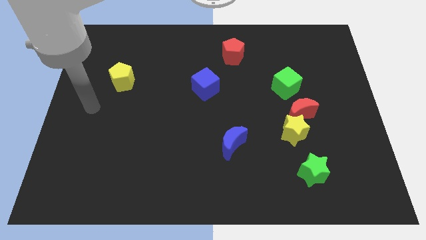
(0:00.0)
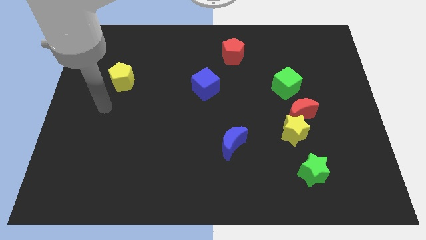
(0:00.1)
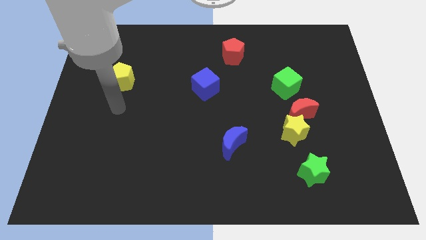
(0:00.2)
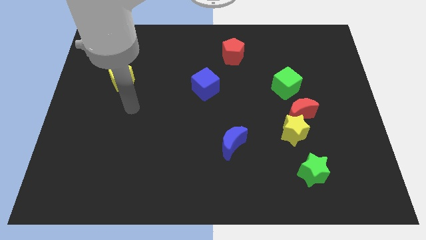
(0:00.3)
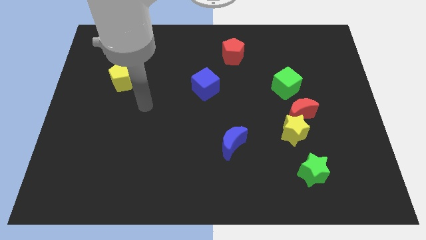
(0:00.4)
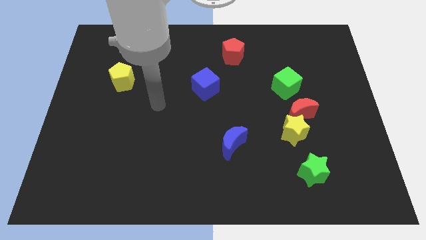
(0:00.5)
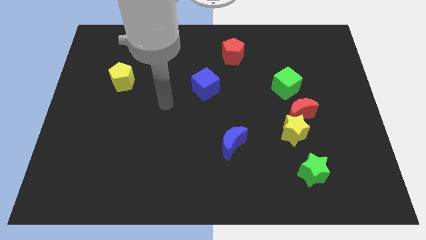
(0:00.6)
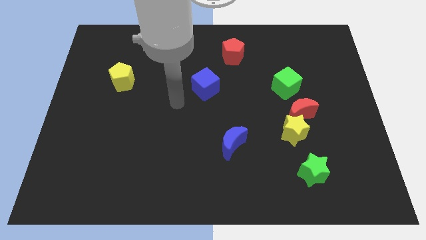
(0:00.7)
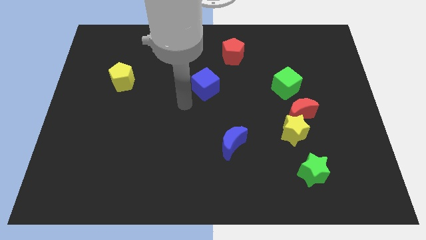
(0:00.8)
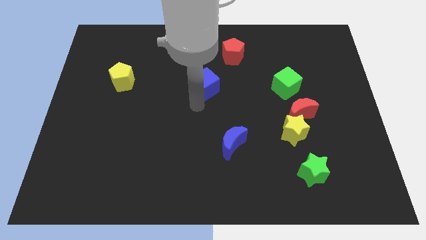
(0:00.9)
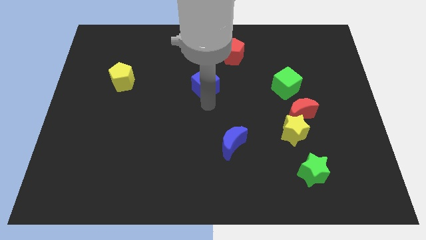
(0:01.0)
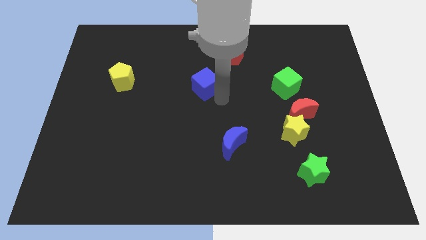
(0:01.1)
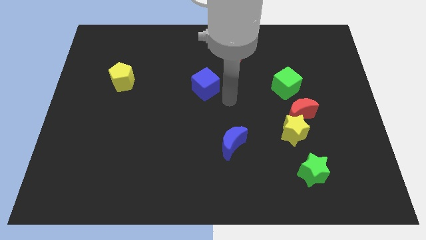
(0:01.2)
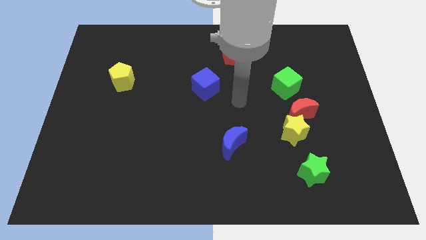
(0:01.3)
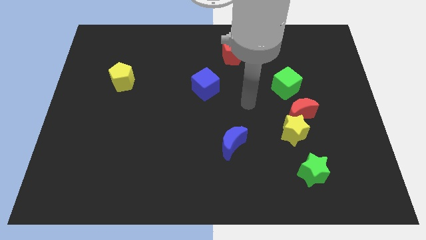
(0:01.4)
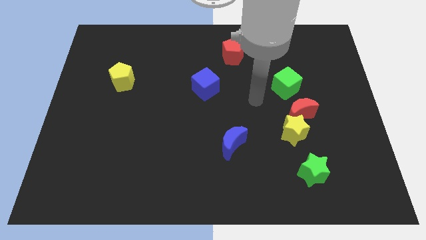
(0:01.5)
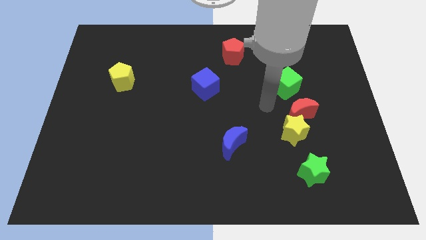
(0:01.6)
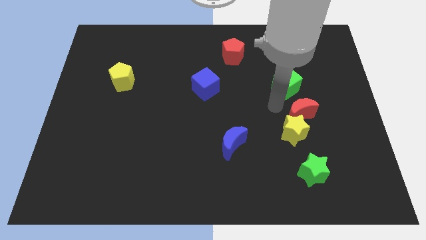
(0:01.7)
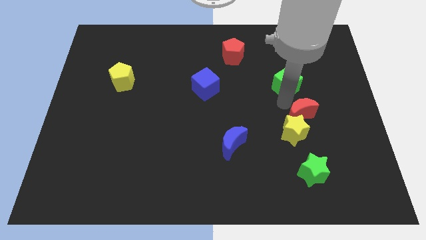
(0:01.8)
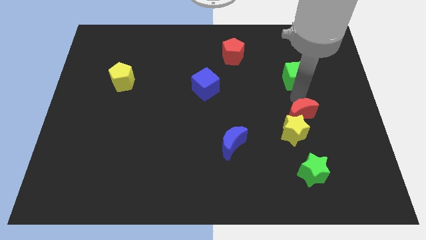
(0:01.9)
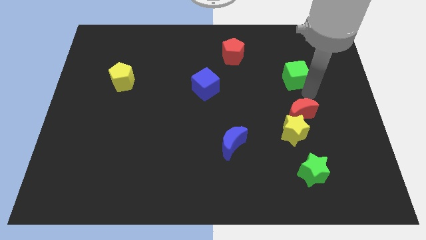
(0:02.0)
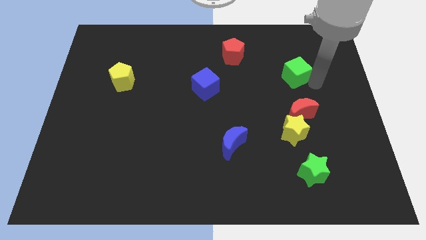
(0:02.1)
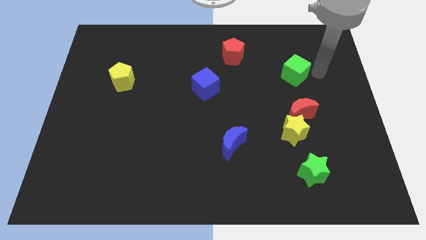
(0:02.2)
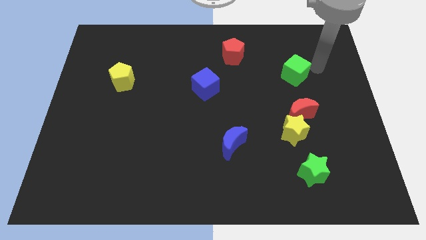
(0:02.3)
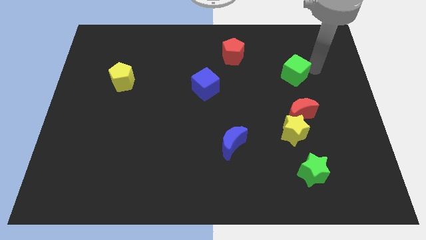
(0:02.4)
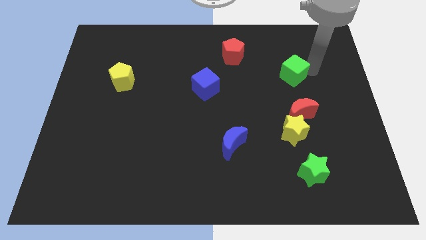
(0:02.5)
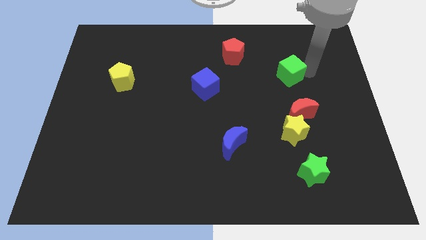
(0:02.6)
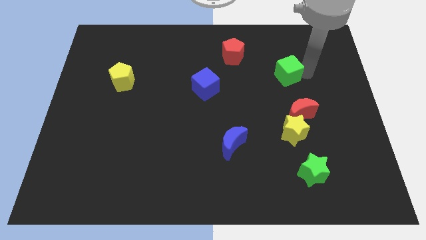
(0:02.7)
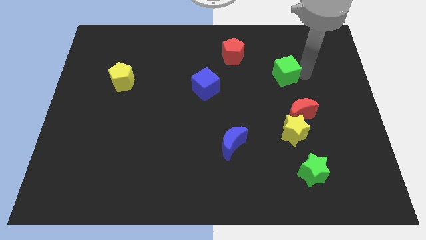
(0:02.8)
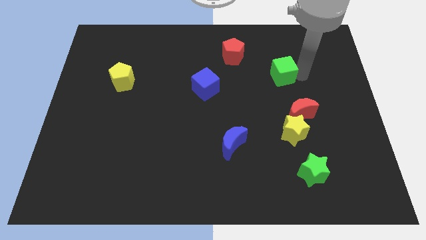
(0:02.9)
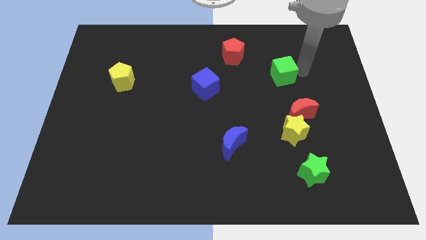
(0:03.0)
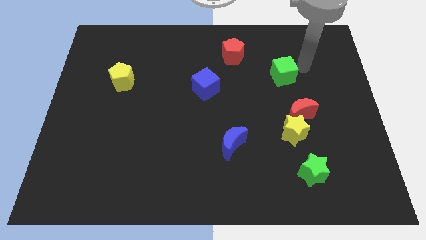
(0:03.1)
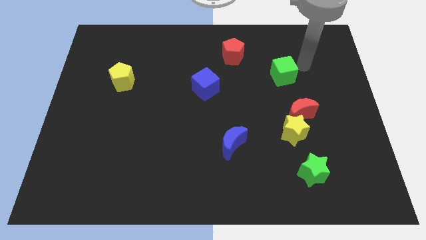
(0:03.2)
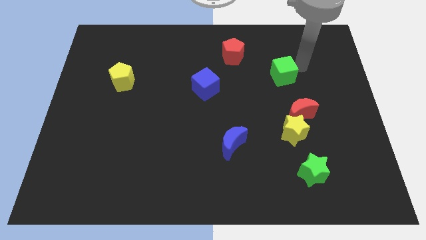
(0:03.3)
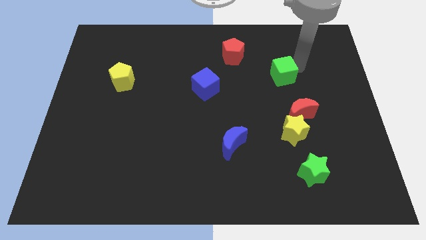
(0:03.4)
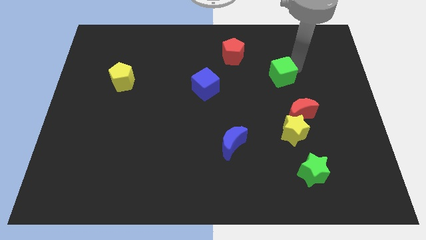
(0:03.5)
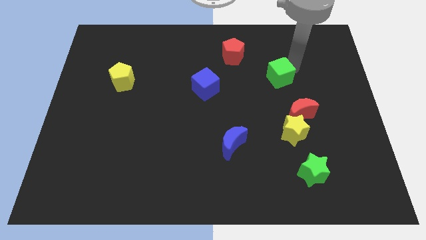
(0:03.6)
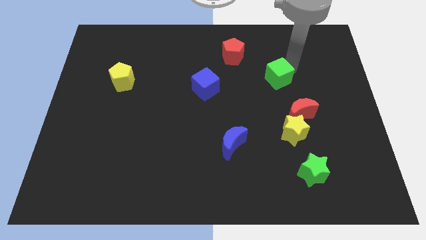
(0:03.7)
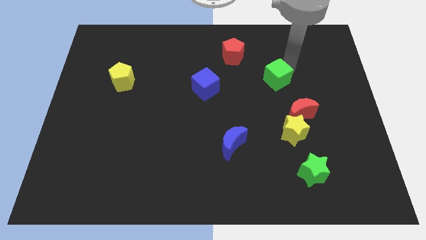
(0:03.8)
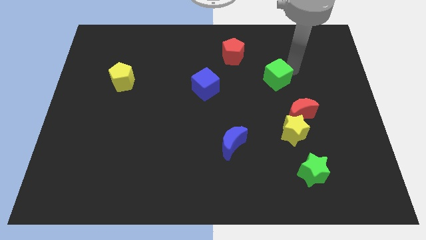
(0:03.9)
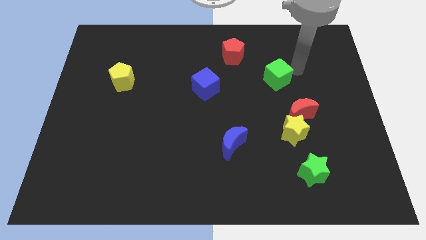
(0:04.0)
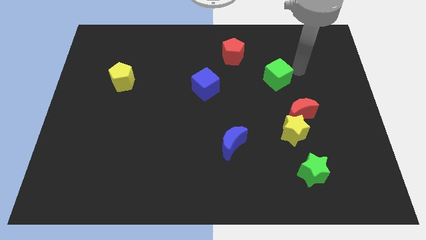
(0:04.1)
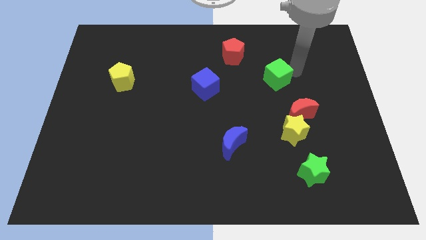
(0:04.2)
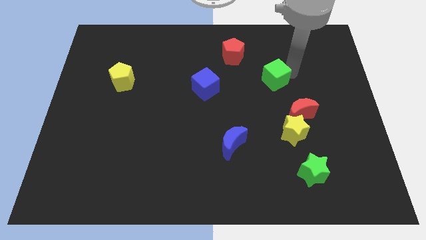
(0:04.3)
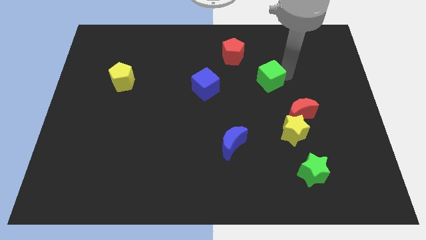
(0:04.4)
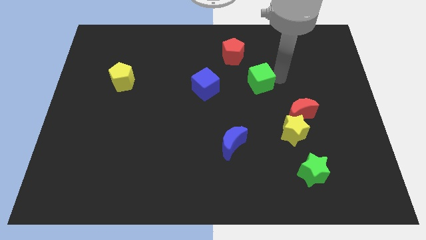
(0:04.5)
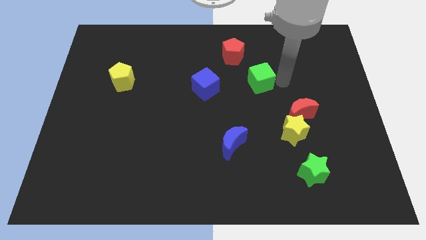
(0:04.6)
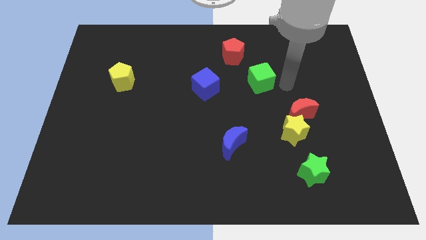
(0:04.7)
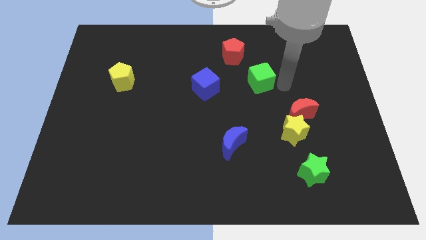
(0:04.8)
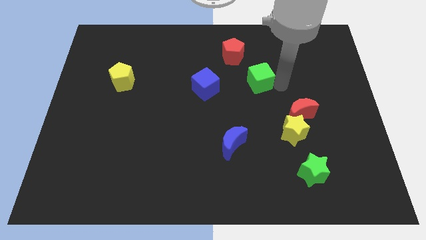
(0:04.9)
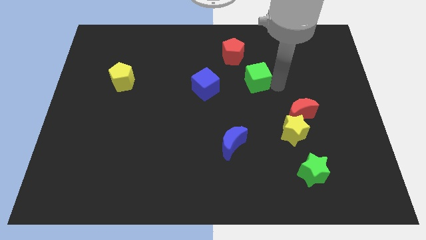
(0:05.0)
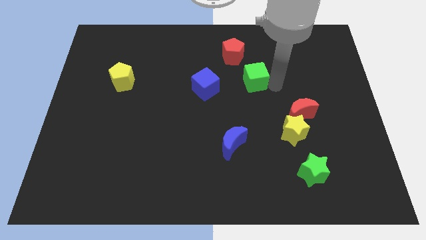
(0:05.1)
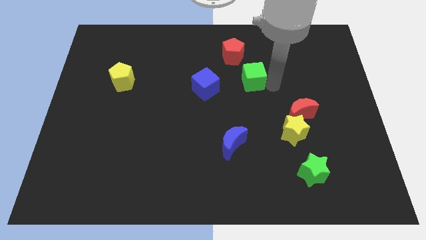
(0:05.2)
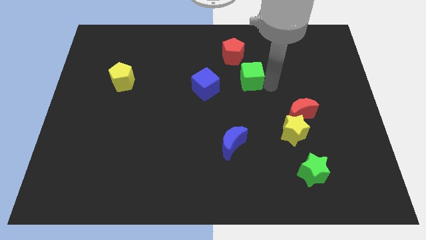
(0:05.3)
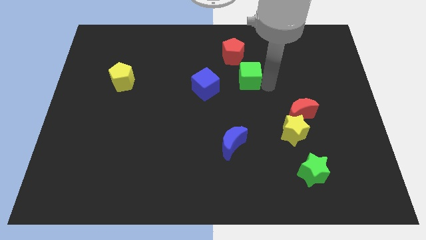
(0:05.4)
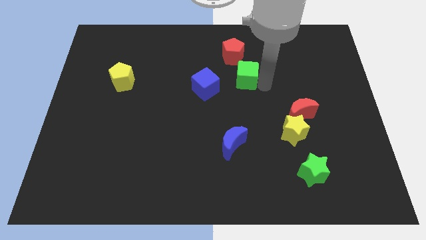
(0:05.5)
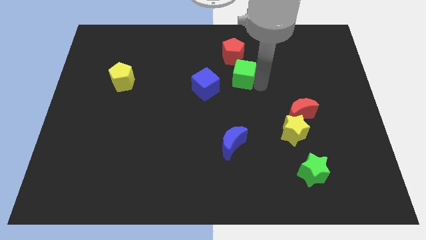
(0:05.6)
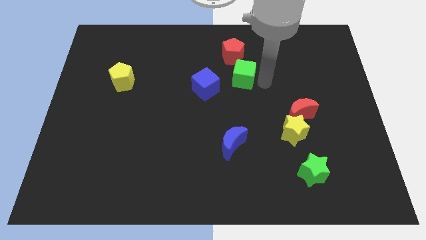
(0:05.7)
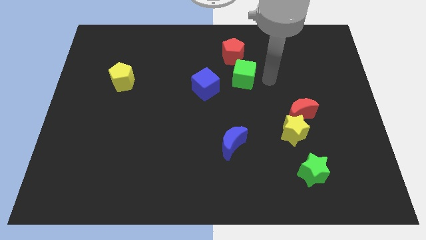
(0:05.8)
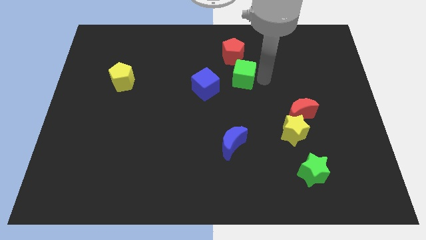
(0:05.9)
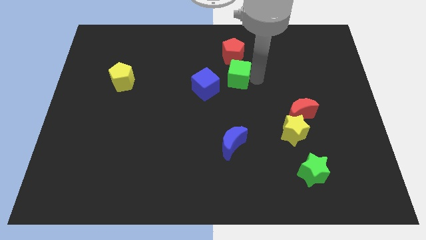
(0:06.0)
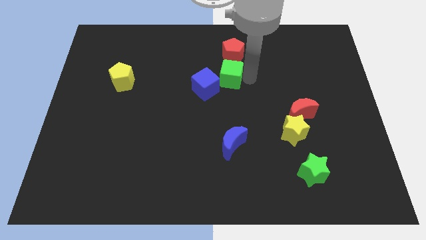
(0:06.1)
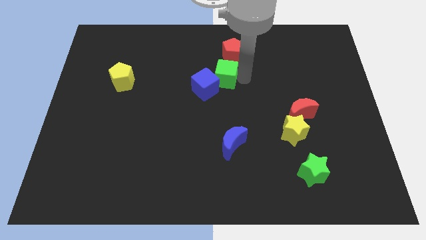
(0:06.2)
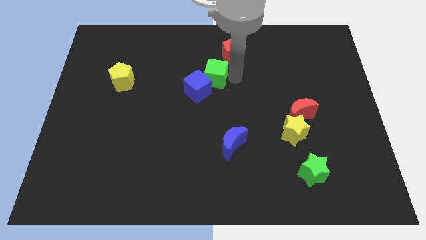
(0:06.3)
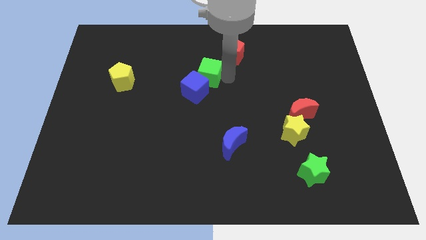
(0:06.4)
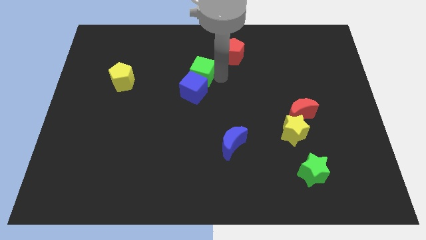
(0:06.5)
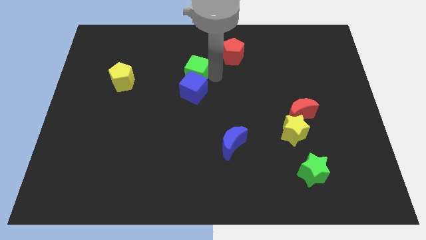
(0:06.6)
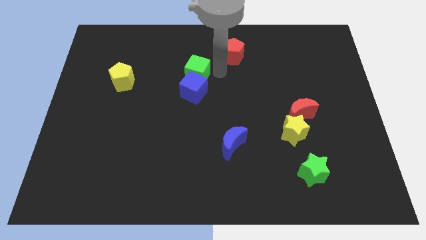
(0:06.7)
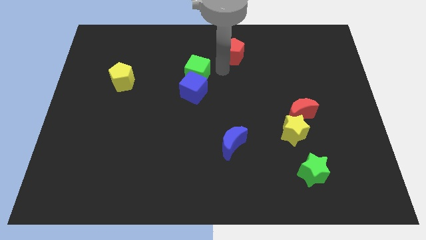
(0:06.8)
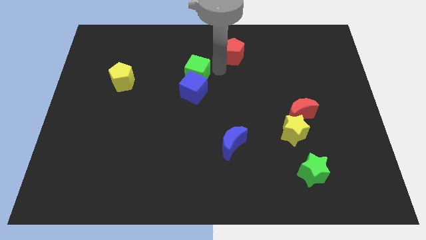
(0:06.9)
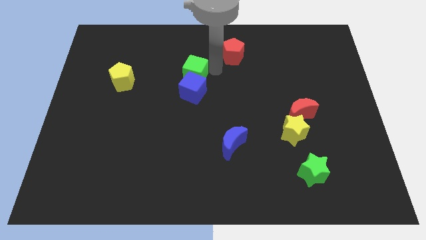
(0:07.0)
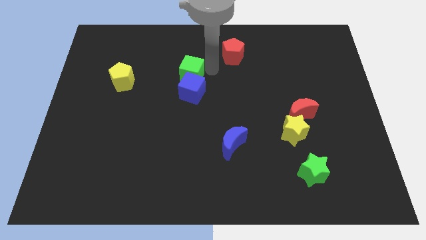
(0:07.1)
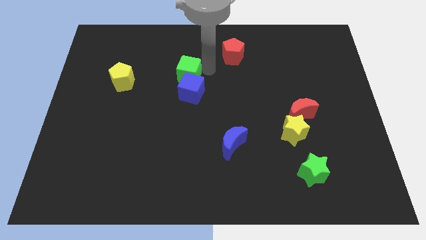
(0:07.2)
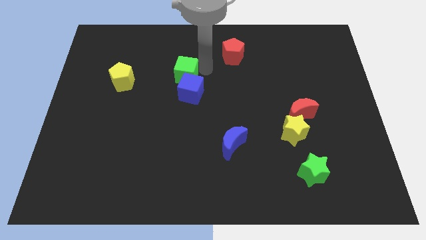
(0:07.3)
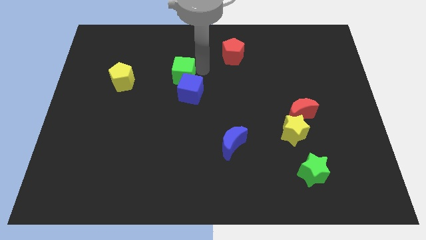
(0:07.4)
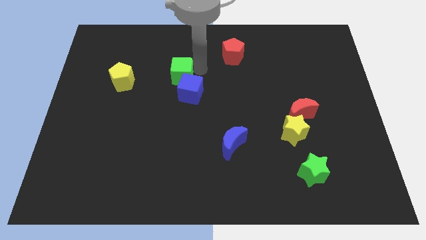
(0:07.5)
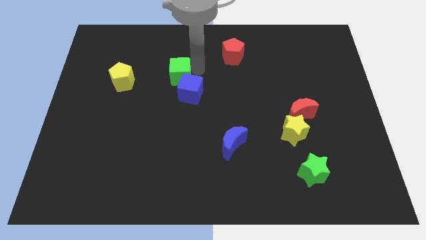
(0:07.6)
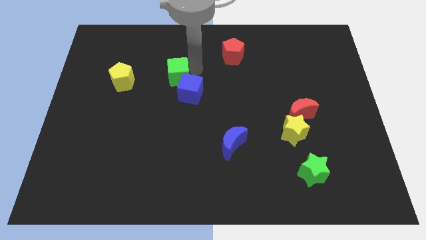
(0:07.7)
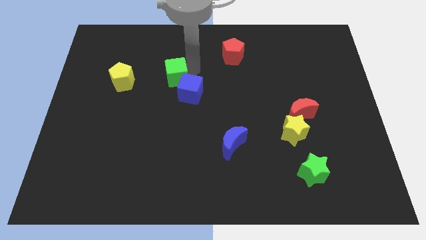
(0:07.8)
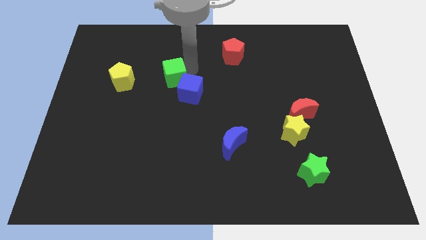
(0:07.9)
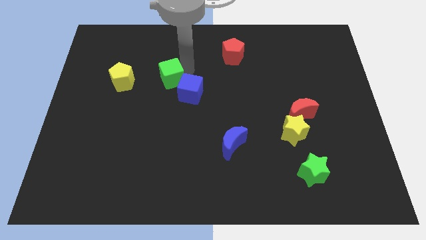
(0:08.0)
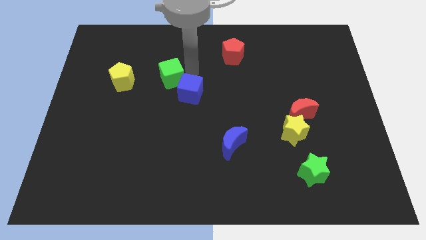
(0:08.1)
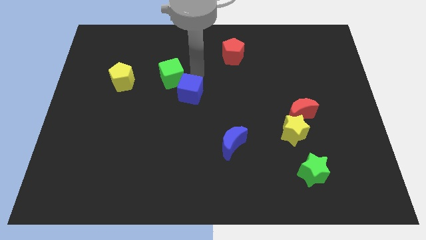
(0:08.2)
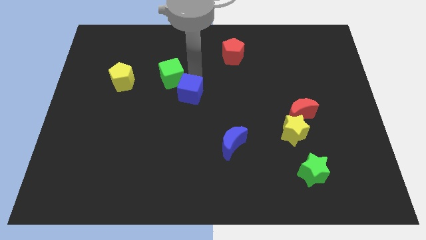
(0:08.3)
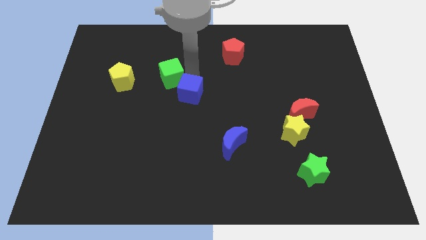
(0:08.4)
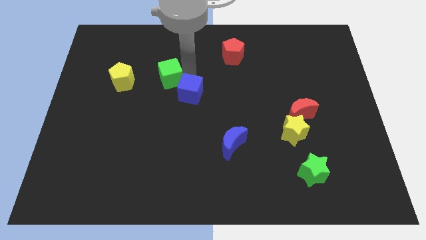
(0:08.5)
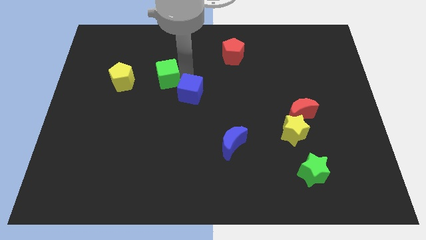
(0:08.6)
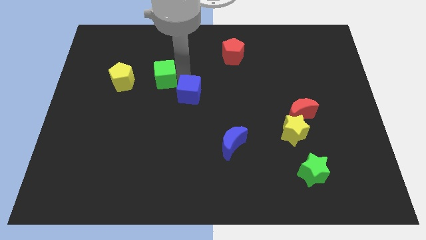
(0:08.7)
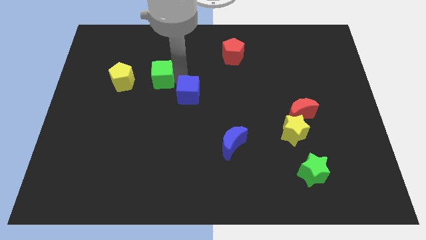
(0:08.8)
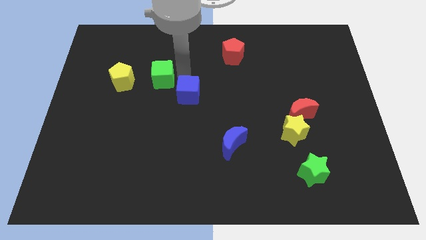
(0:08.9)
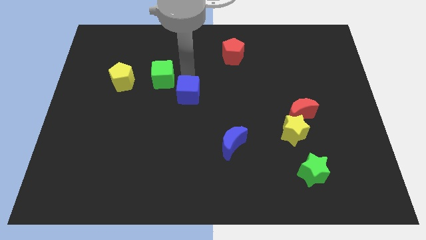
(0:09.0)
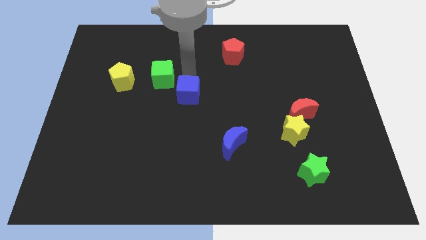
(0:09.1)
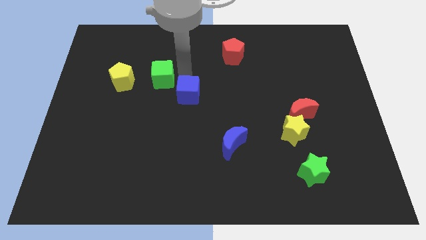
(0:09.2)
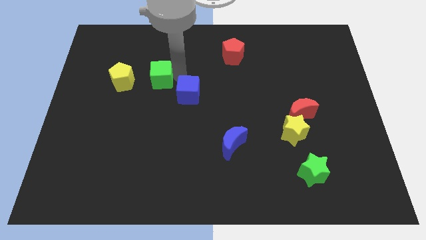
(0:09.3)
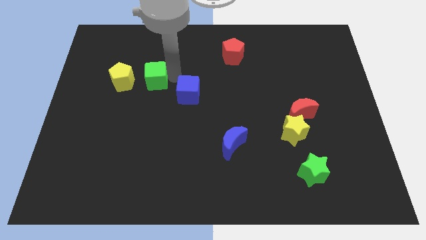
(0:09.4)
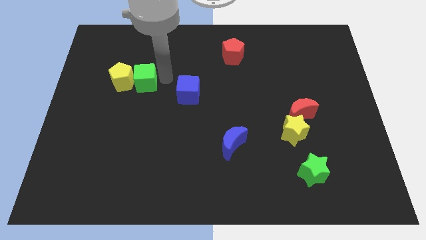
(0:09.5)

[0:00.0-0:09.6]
slide the green cube next to the yellow pentagon
